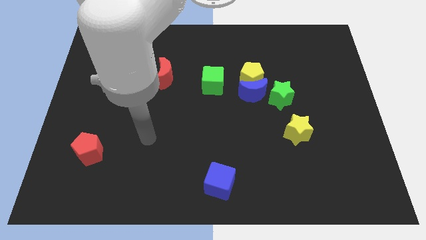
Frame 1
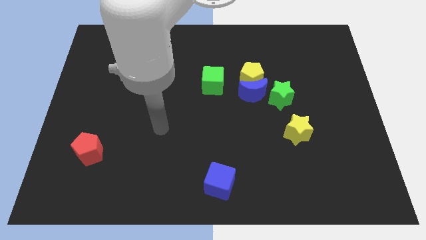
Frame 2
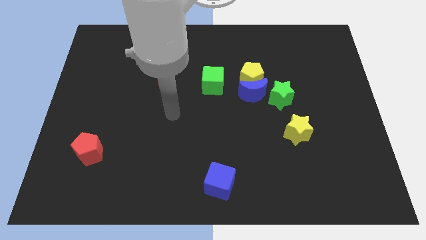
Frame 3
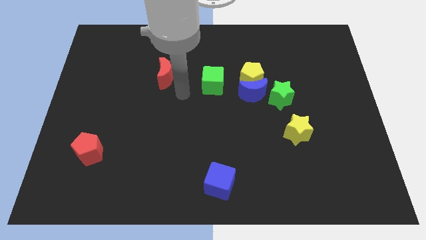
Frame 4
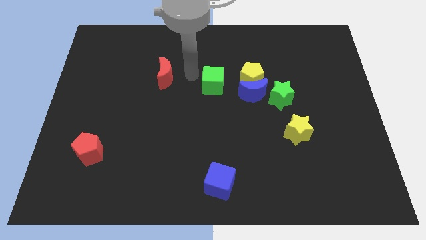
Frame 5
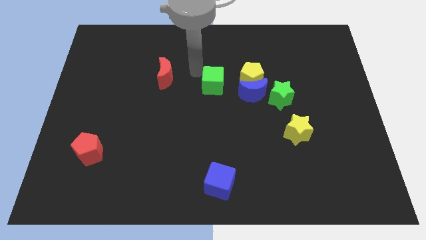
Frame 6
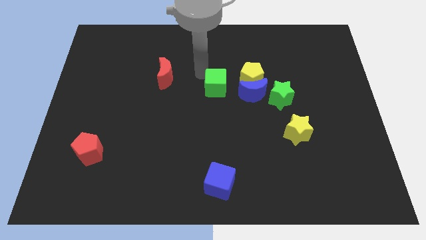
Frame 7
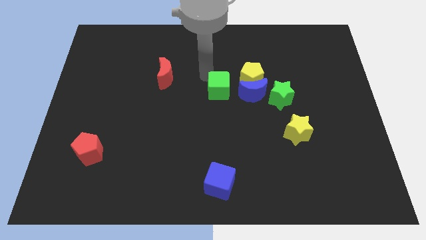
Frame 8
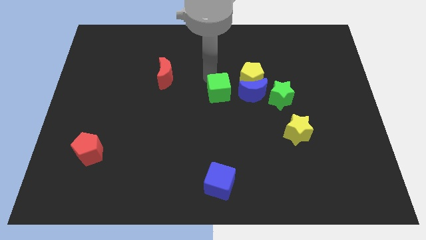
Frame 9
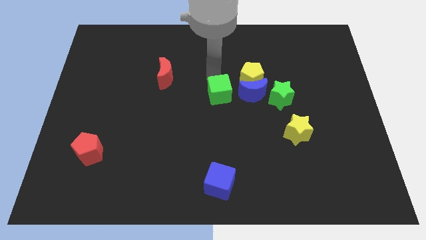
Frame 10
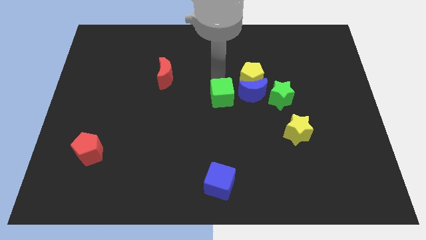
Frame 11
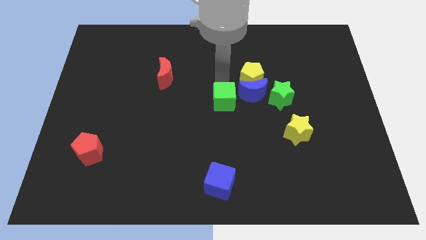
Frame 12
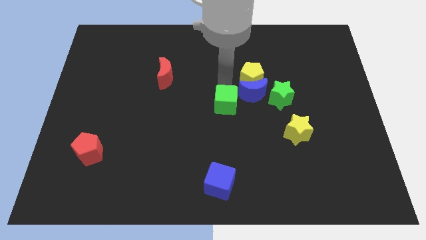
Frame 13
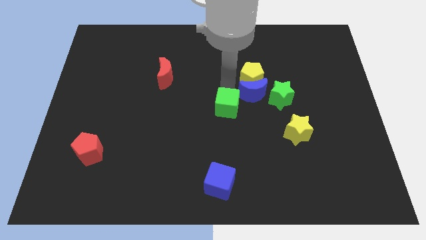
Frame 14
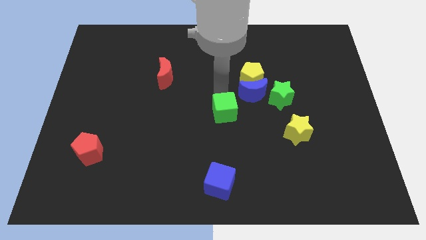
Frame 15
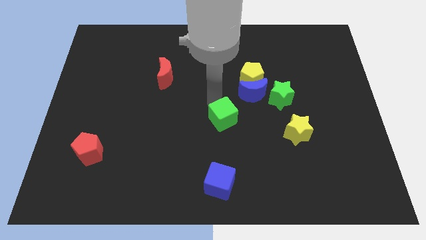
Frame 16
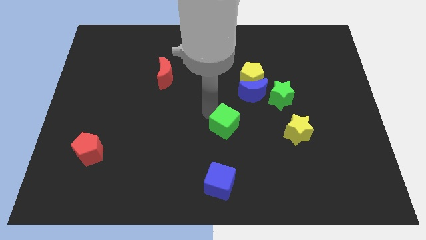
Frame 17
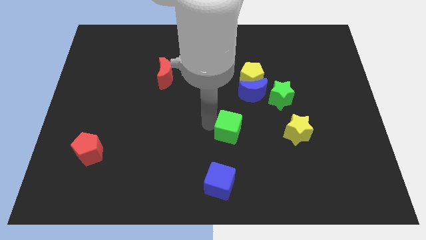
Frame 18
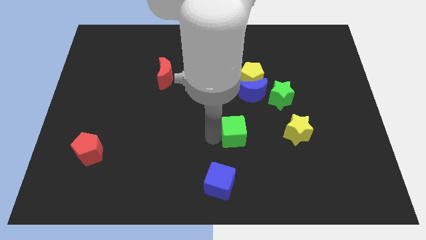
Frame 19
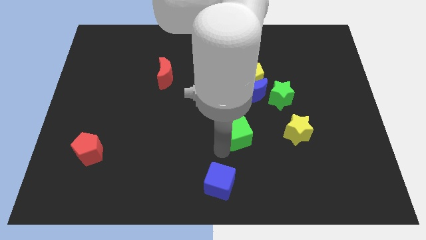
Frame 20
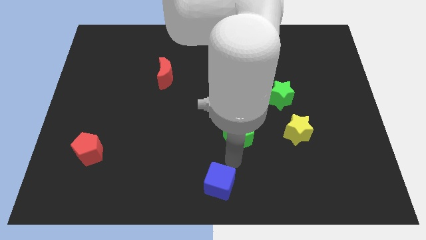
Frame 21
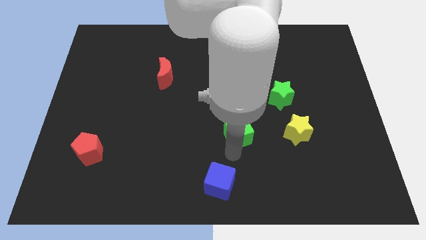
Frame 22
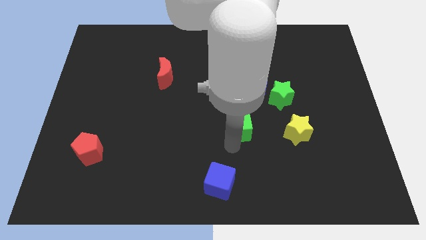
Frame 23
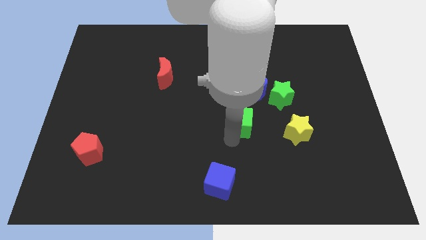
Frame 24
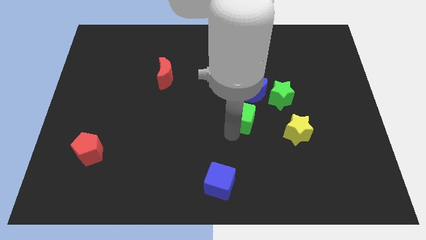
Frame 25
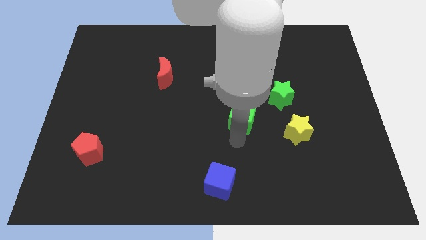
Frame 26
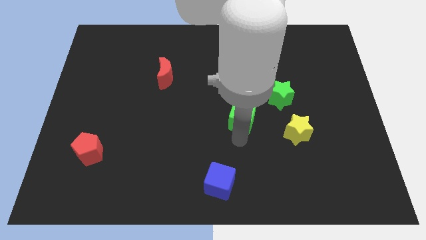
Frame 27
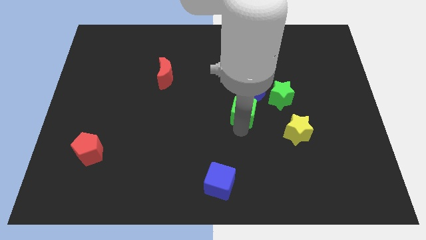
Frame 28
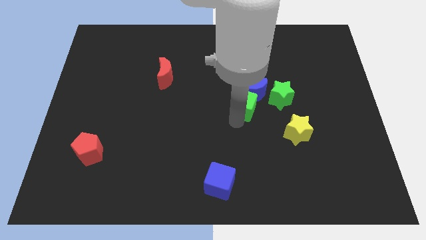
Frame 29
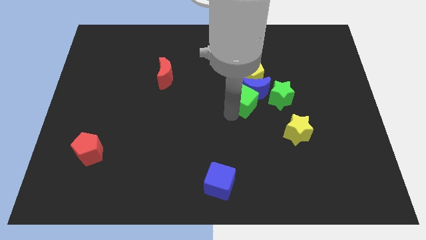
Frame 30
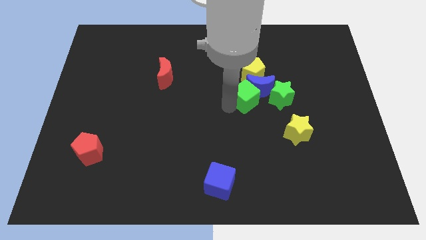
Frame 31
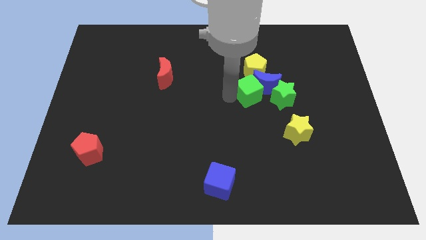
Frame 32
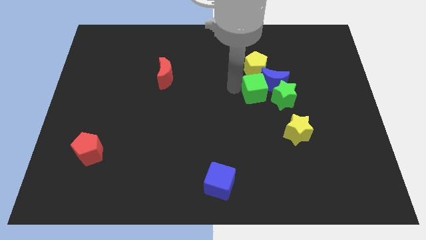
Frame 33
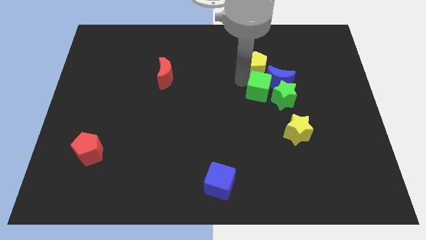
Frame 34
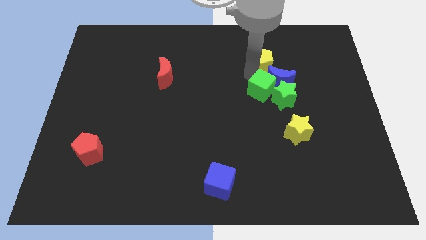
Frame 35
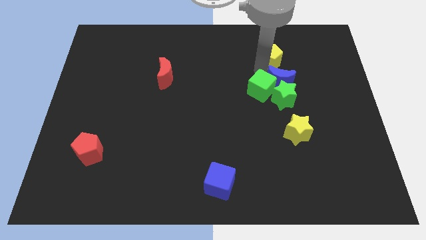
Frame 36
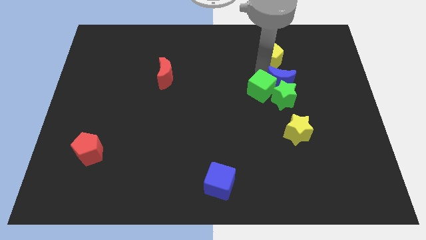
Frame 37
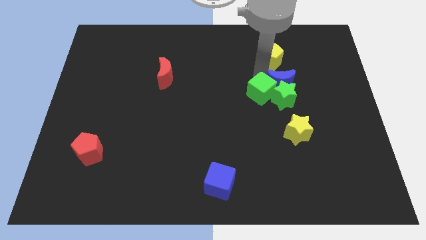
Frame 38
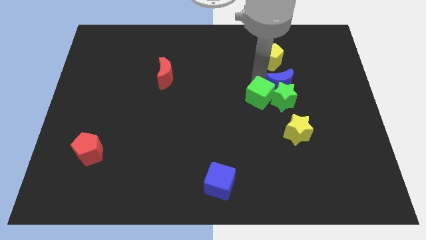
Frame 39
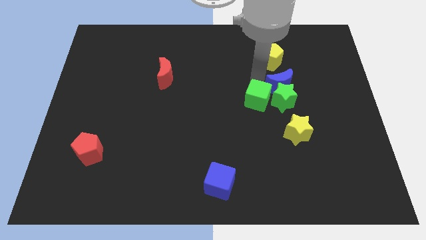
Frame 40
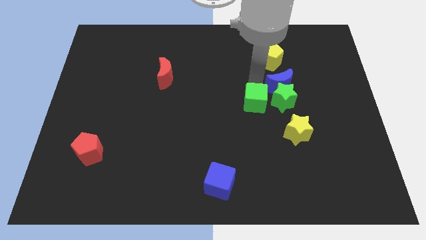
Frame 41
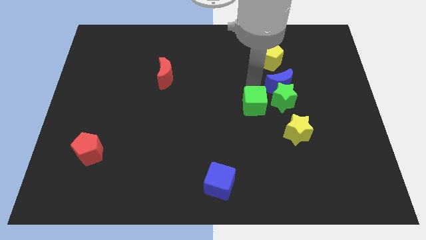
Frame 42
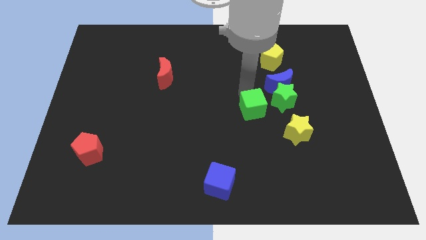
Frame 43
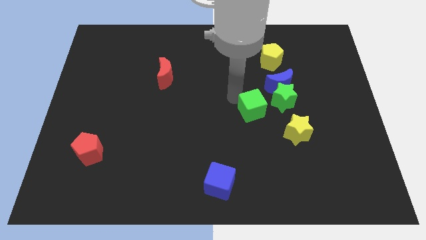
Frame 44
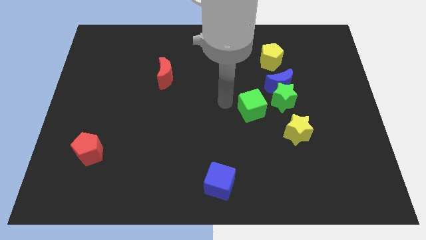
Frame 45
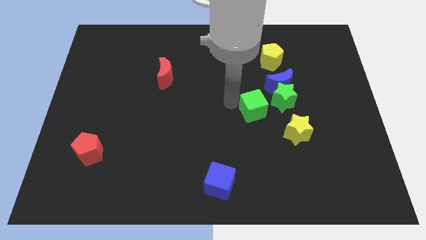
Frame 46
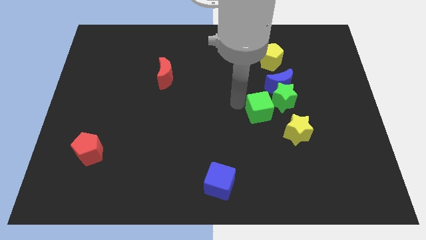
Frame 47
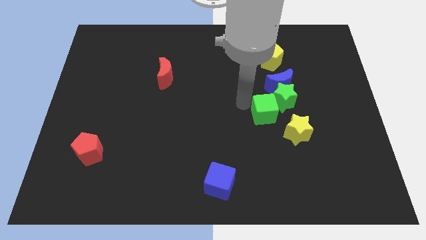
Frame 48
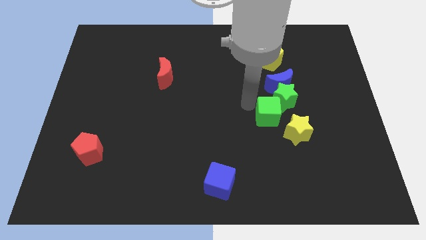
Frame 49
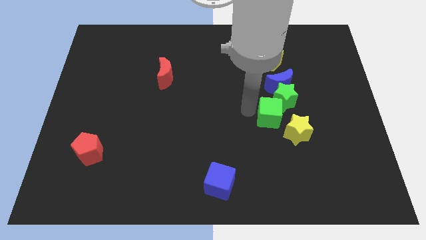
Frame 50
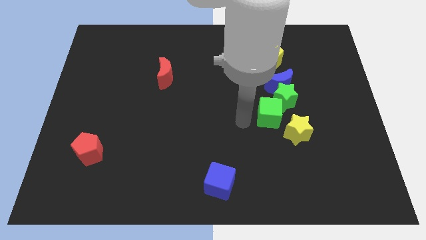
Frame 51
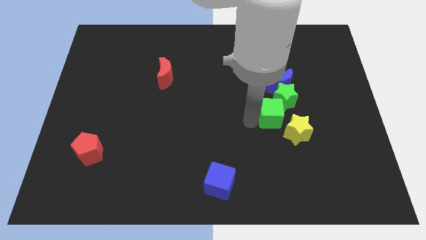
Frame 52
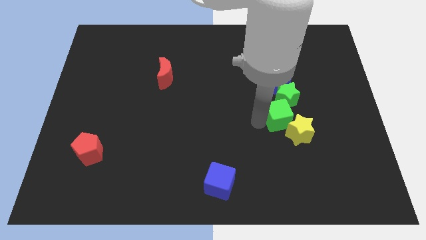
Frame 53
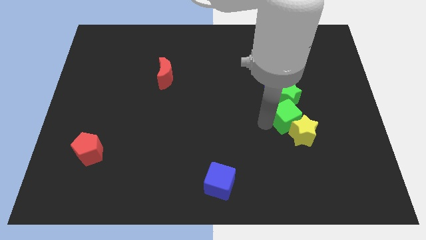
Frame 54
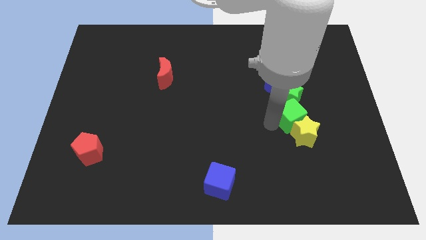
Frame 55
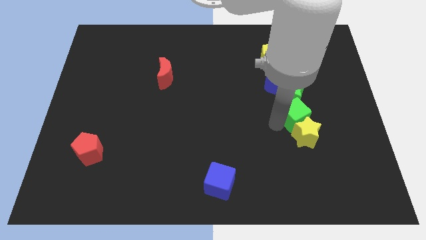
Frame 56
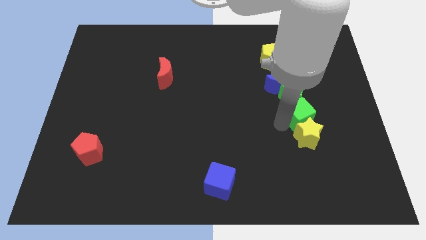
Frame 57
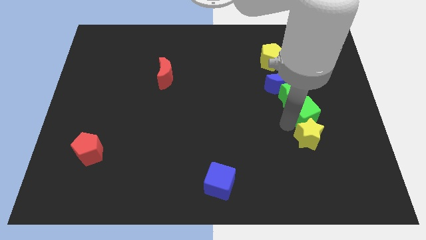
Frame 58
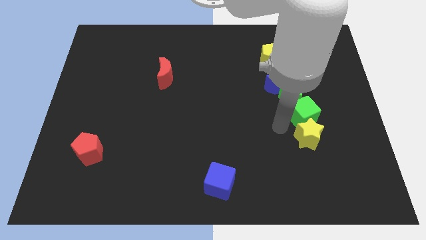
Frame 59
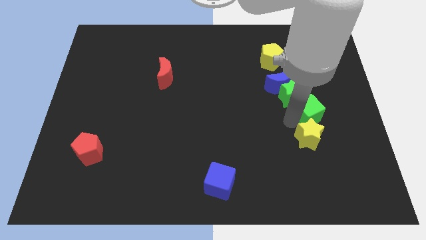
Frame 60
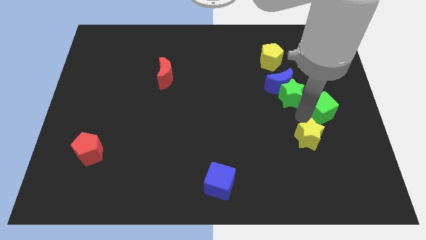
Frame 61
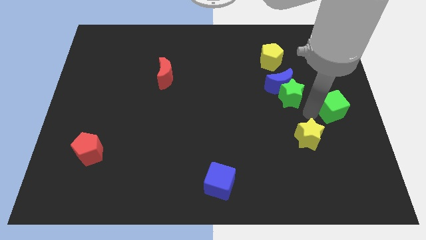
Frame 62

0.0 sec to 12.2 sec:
put the green cube to the center right
